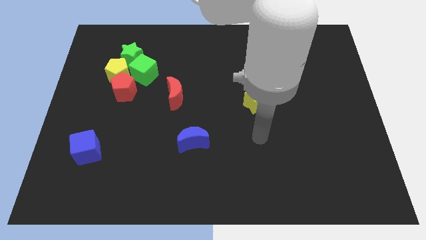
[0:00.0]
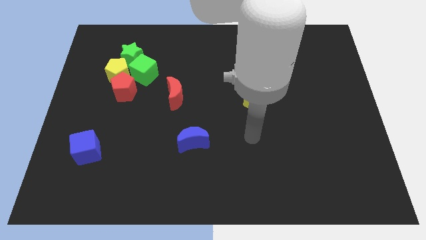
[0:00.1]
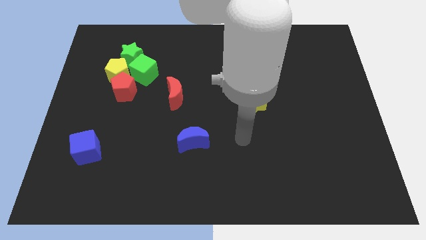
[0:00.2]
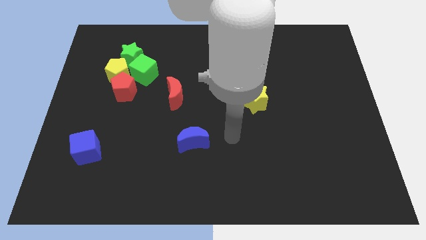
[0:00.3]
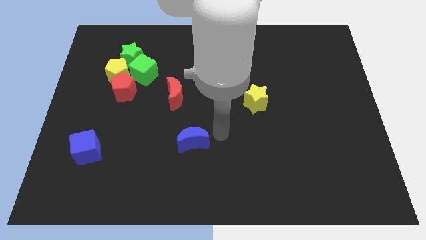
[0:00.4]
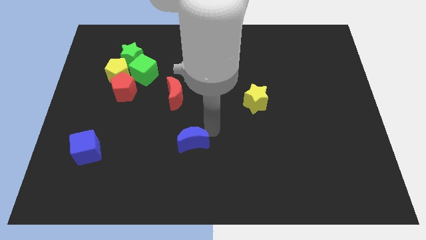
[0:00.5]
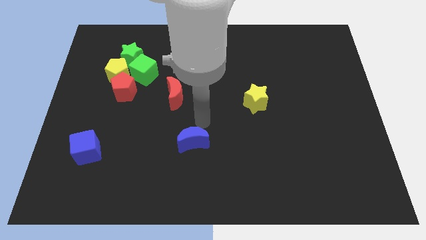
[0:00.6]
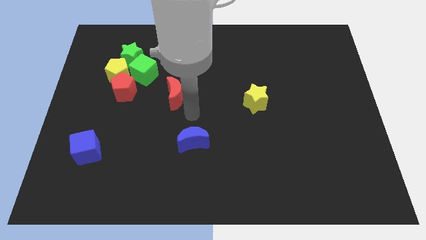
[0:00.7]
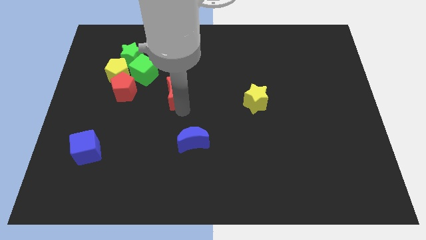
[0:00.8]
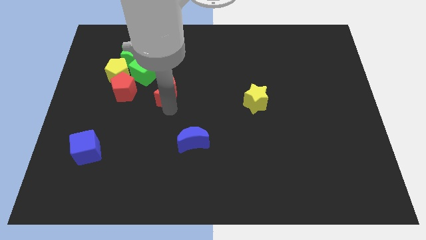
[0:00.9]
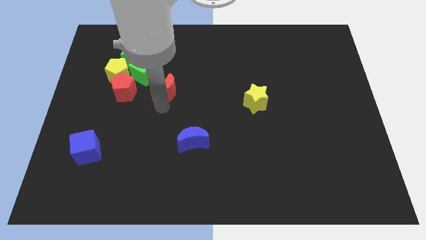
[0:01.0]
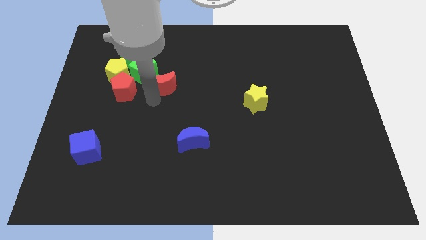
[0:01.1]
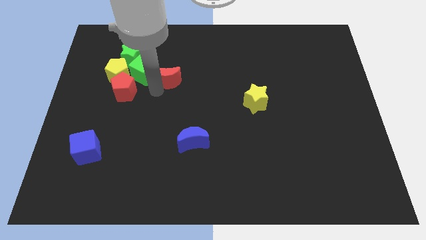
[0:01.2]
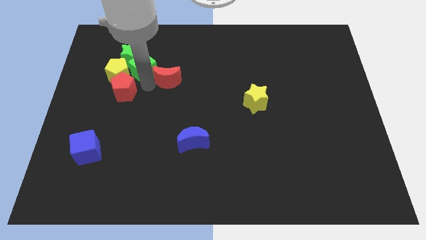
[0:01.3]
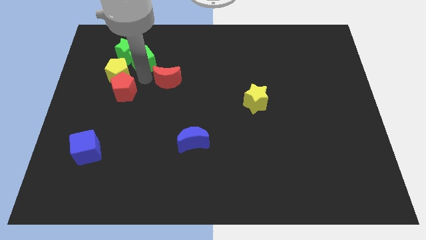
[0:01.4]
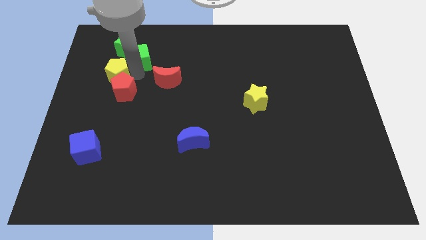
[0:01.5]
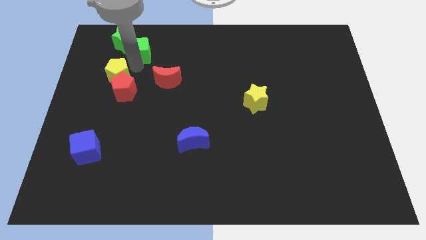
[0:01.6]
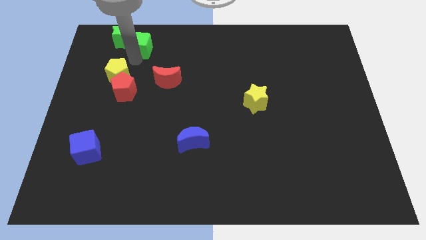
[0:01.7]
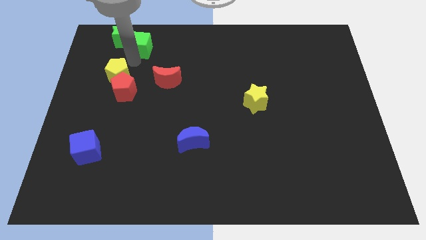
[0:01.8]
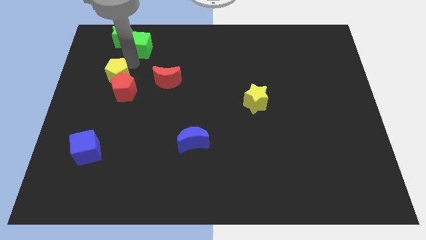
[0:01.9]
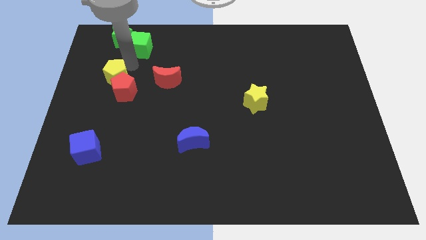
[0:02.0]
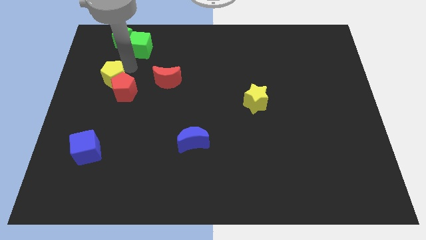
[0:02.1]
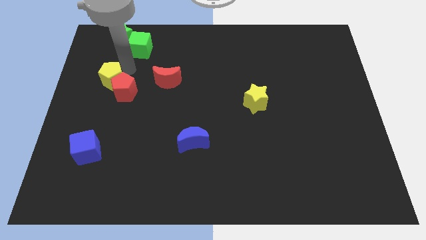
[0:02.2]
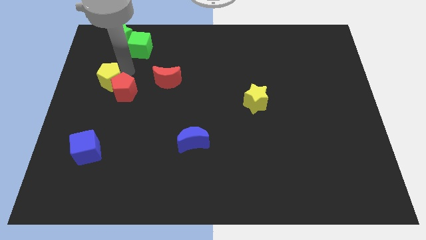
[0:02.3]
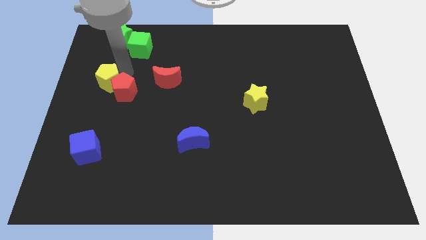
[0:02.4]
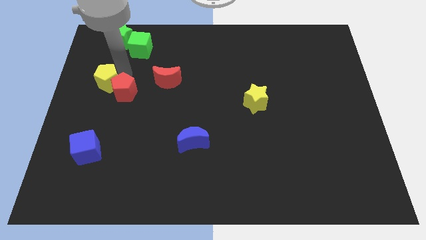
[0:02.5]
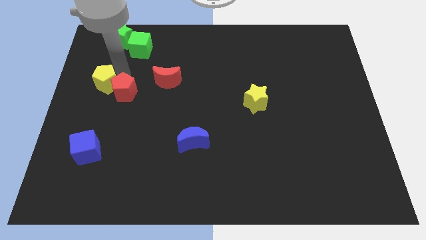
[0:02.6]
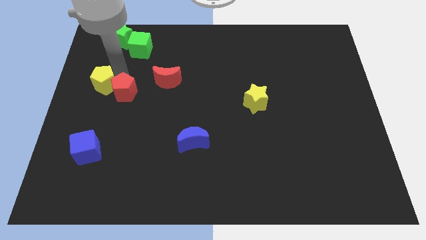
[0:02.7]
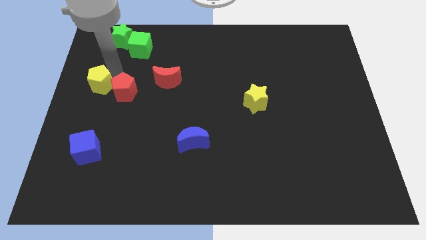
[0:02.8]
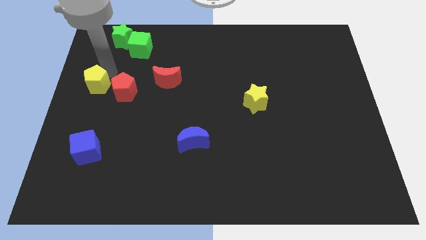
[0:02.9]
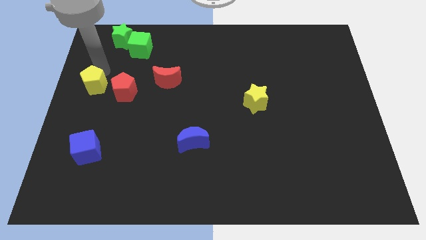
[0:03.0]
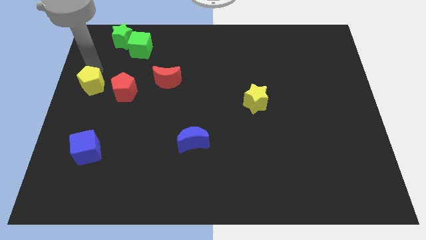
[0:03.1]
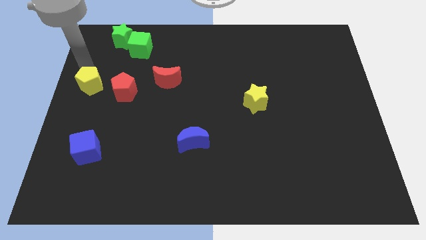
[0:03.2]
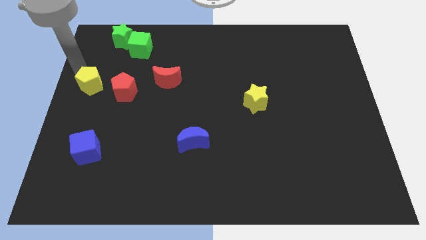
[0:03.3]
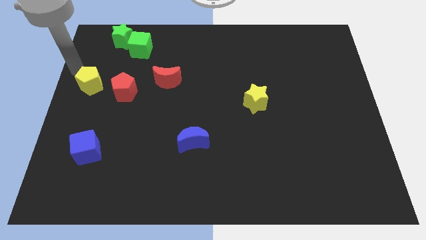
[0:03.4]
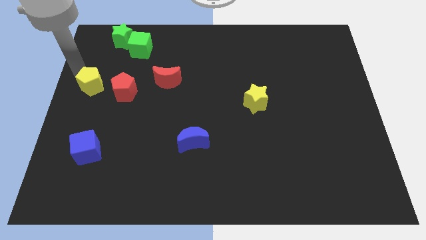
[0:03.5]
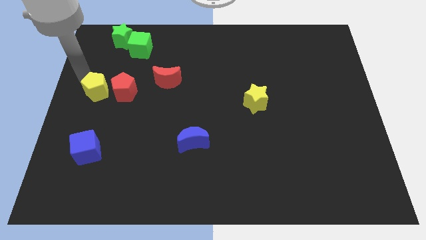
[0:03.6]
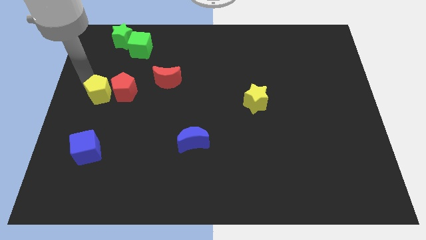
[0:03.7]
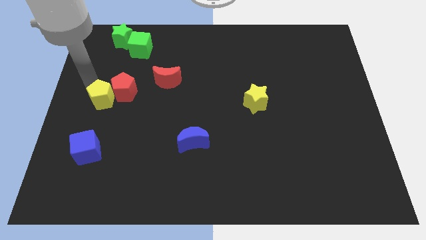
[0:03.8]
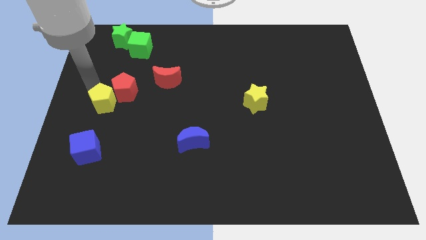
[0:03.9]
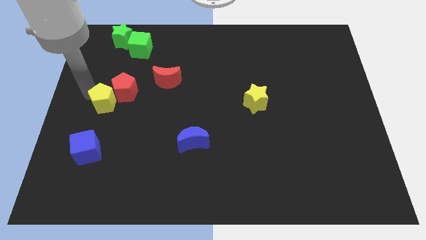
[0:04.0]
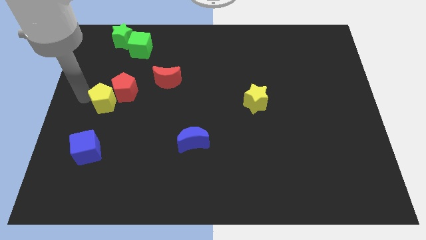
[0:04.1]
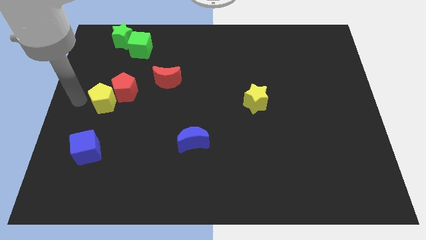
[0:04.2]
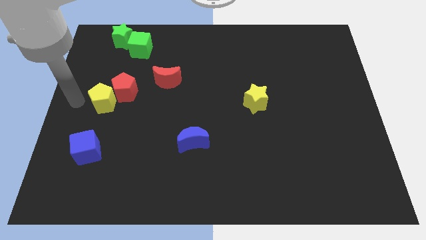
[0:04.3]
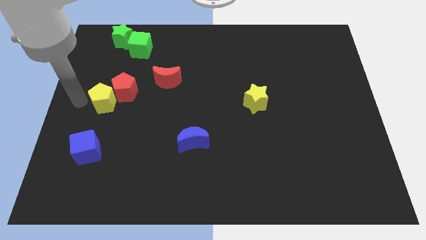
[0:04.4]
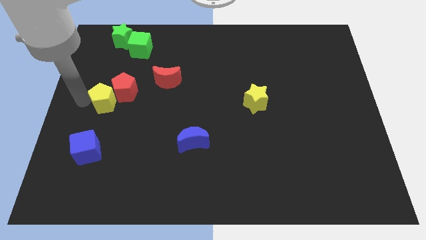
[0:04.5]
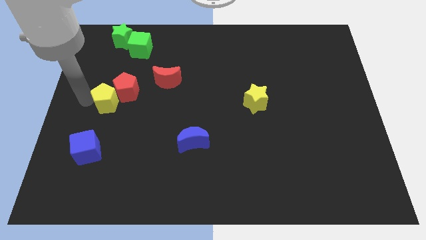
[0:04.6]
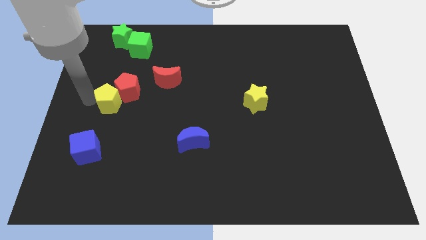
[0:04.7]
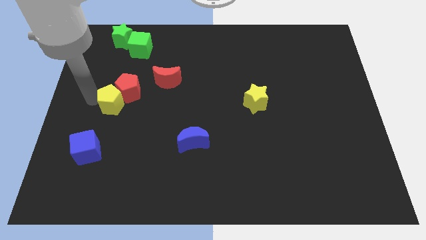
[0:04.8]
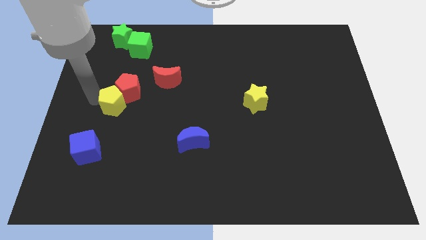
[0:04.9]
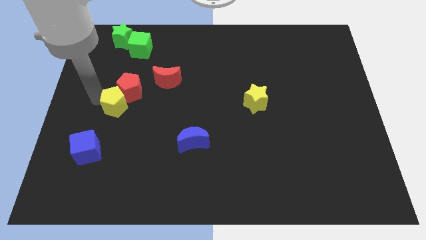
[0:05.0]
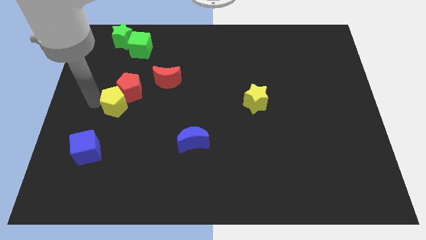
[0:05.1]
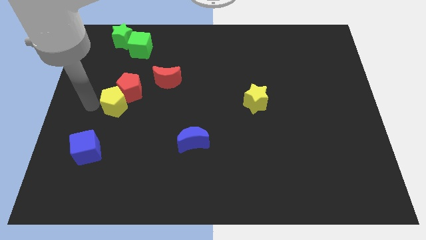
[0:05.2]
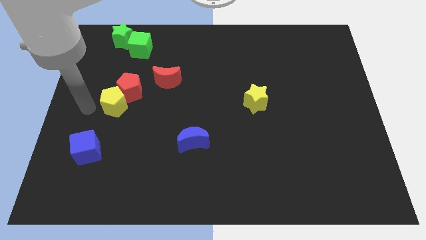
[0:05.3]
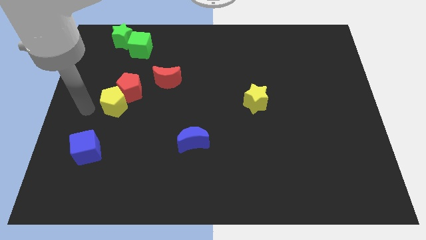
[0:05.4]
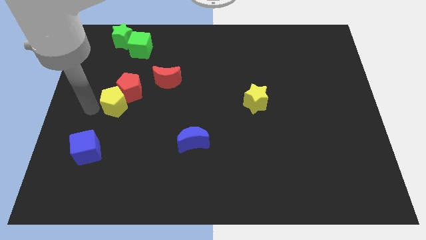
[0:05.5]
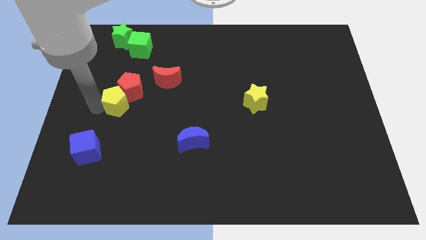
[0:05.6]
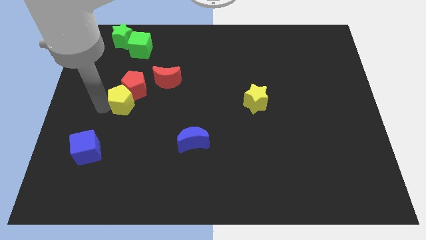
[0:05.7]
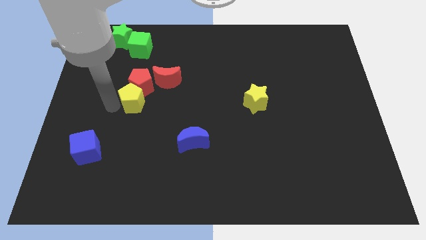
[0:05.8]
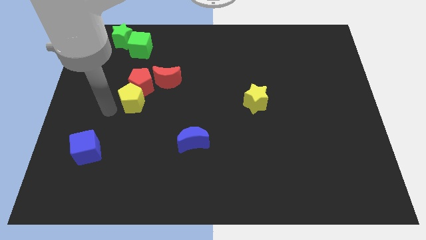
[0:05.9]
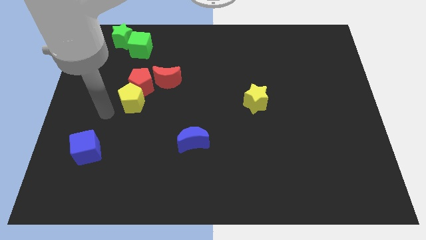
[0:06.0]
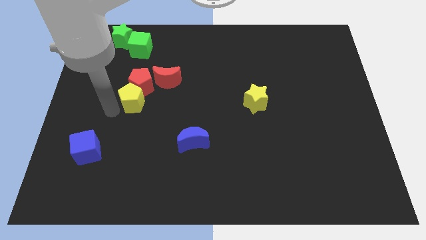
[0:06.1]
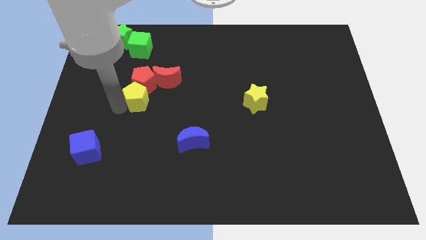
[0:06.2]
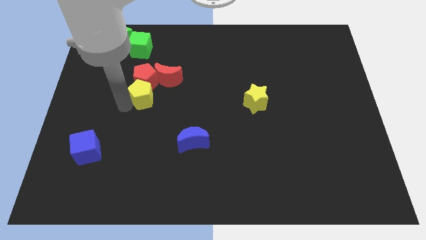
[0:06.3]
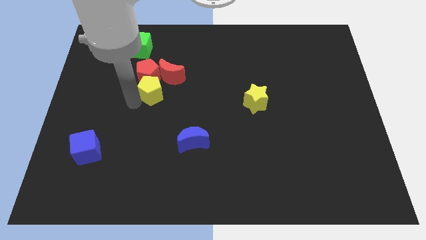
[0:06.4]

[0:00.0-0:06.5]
slightly move the yellow pentagon to the right

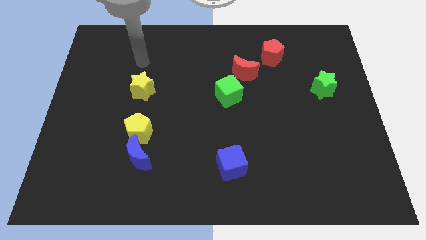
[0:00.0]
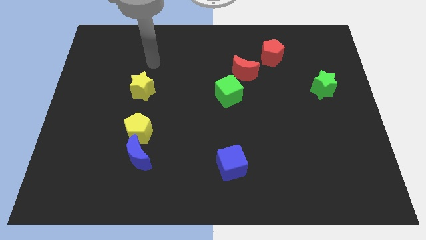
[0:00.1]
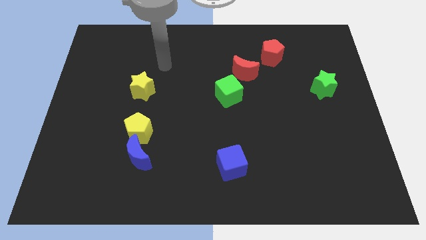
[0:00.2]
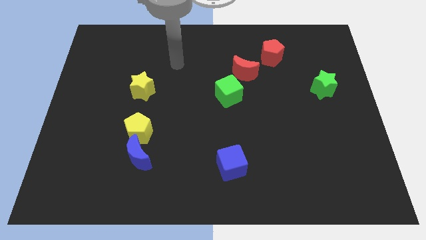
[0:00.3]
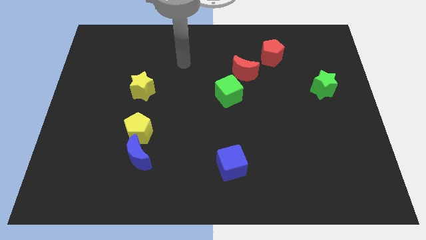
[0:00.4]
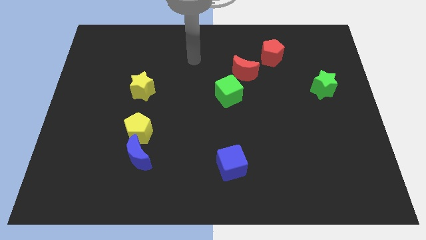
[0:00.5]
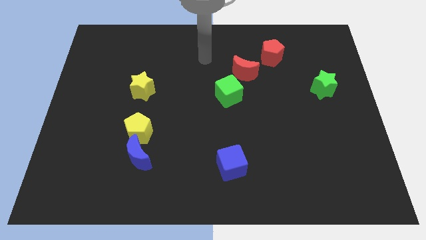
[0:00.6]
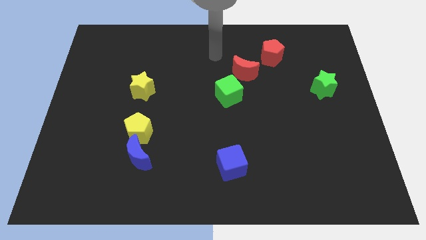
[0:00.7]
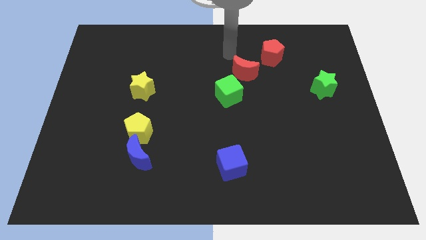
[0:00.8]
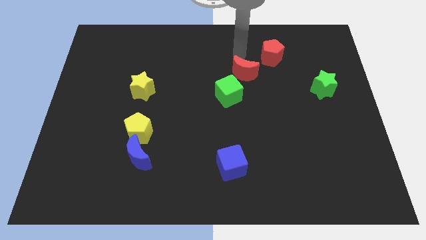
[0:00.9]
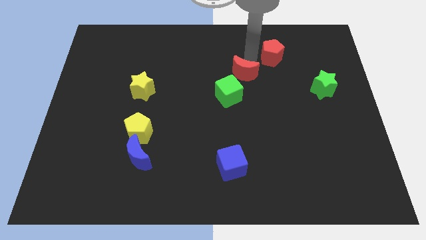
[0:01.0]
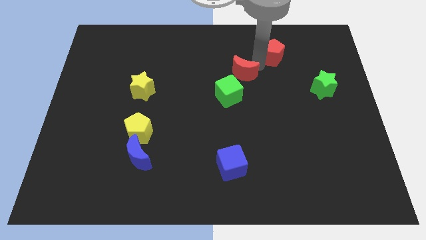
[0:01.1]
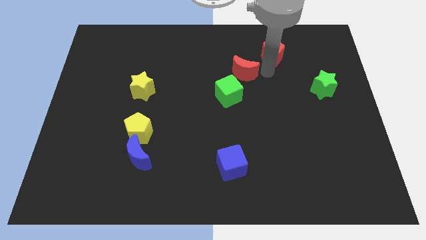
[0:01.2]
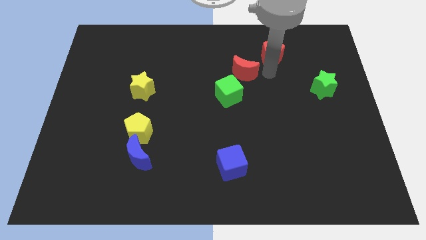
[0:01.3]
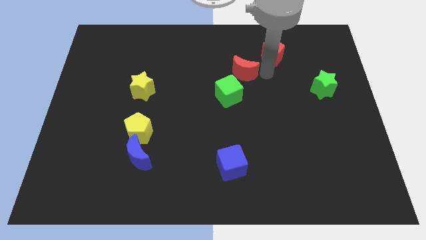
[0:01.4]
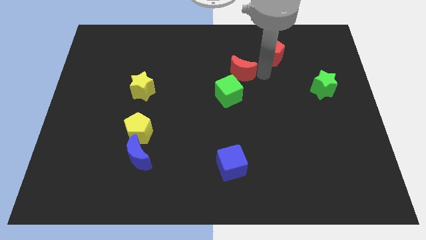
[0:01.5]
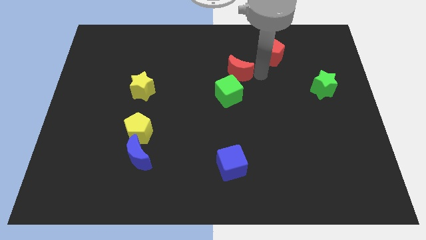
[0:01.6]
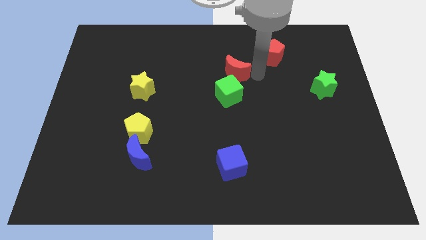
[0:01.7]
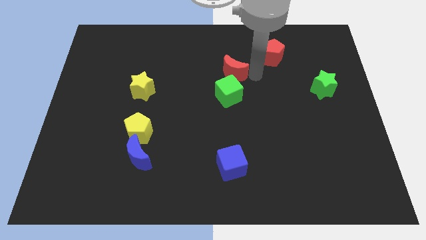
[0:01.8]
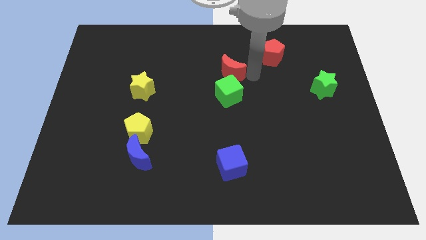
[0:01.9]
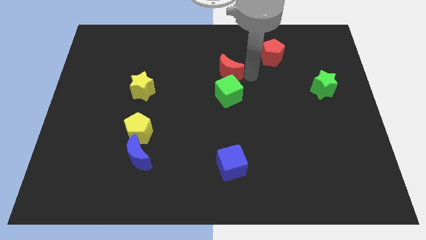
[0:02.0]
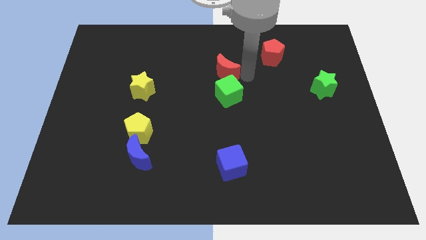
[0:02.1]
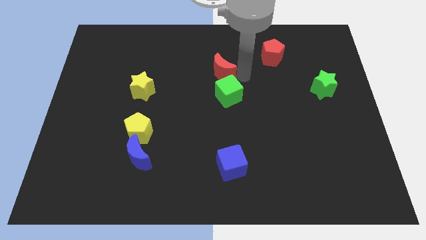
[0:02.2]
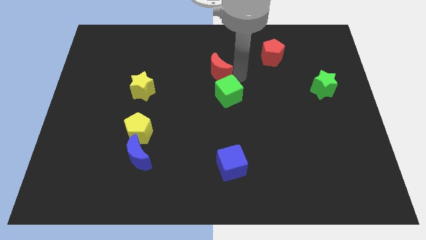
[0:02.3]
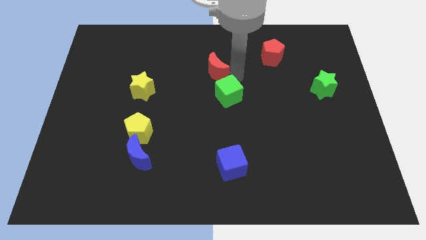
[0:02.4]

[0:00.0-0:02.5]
slightly slide the red moon to the left
